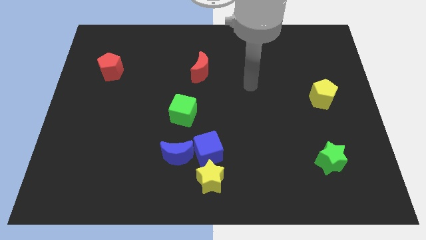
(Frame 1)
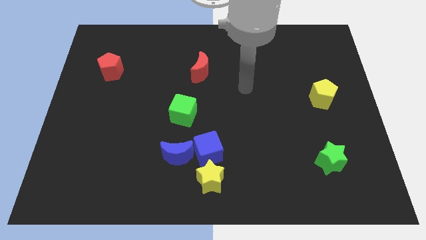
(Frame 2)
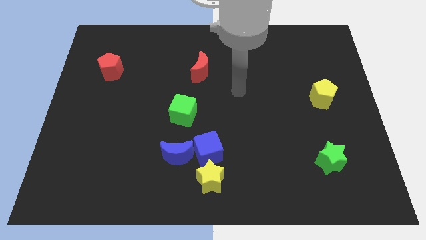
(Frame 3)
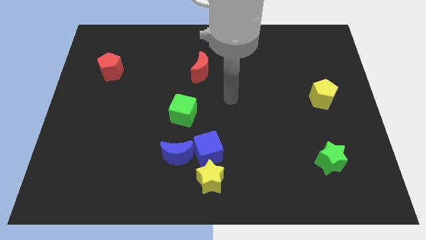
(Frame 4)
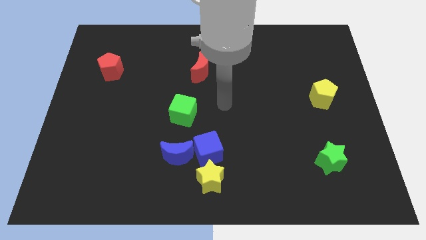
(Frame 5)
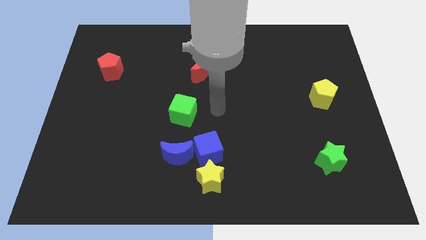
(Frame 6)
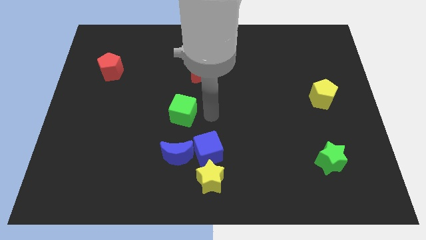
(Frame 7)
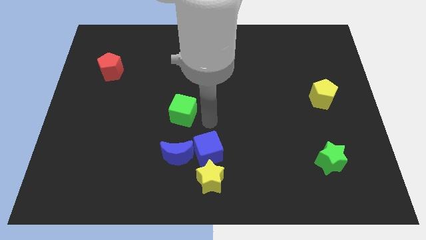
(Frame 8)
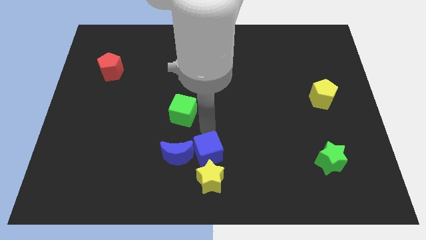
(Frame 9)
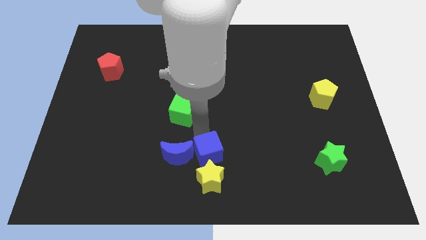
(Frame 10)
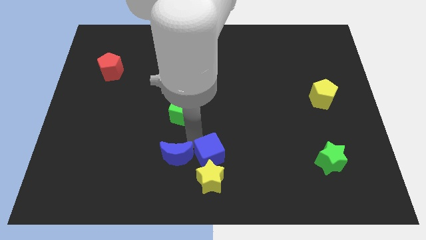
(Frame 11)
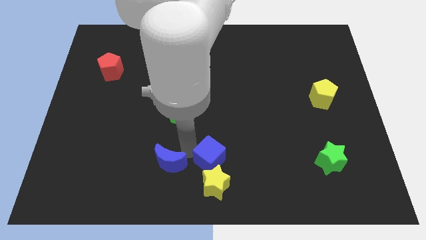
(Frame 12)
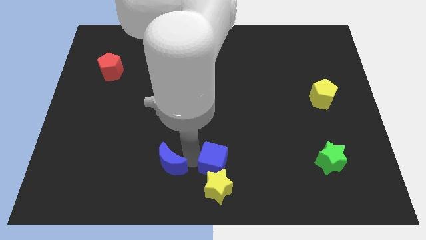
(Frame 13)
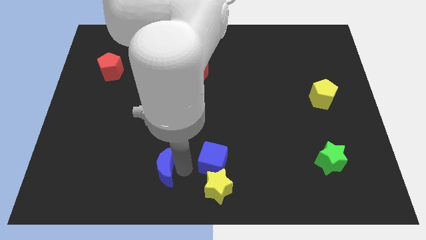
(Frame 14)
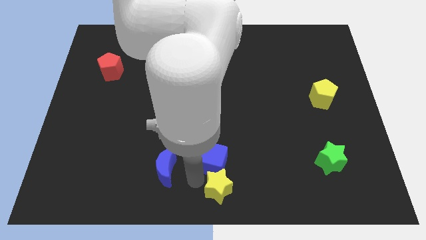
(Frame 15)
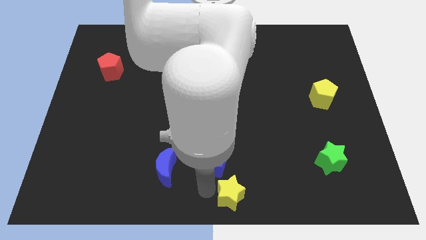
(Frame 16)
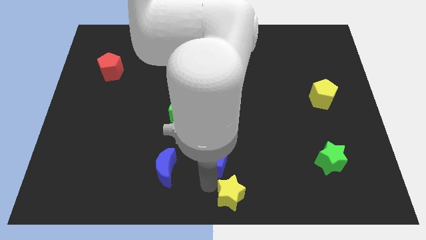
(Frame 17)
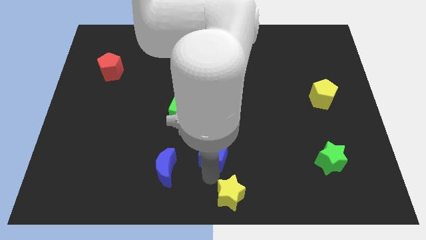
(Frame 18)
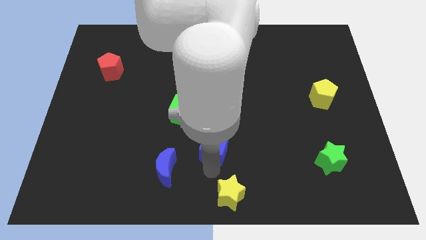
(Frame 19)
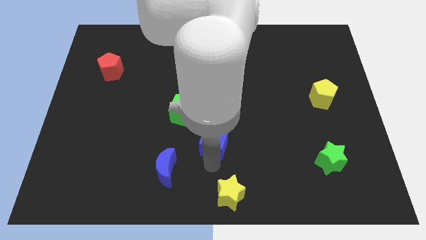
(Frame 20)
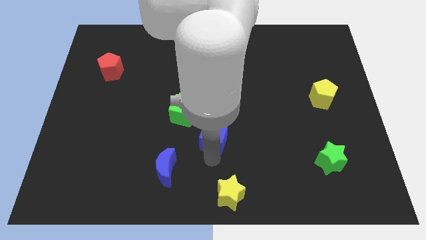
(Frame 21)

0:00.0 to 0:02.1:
pull the blue cube apart from the blue moon and yellow star

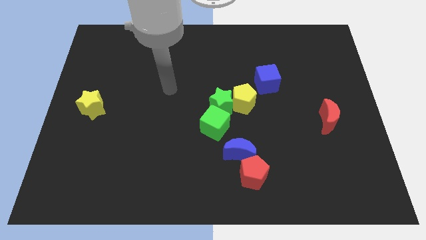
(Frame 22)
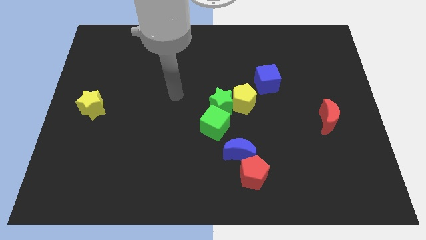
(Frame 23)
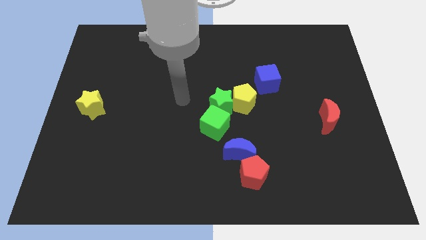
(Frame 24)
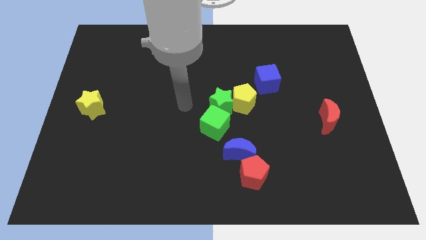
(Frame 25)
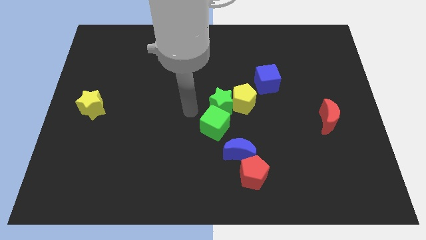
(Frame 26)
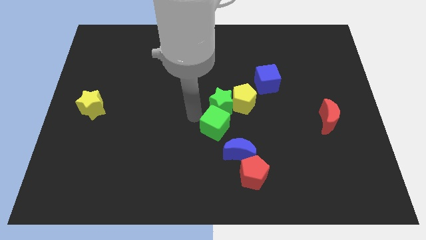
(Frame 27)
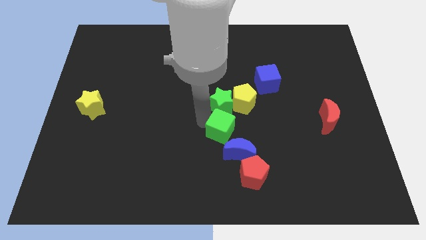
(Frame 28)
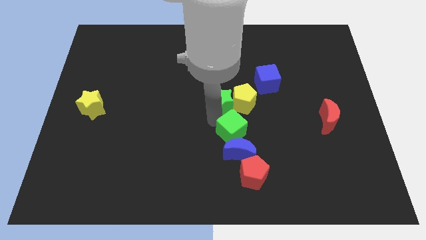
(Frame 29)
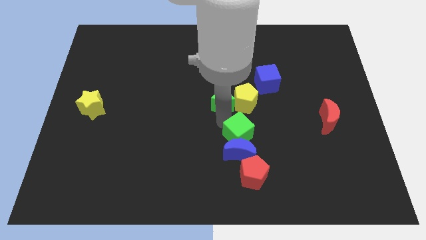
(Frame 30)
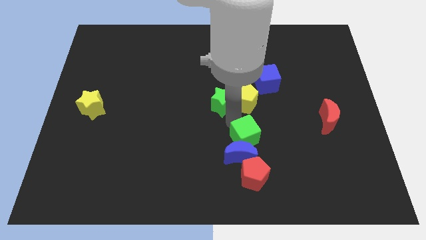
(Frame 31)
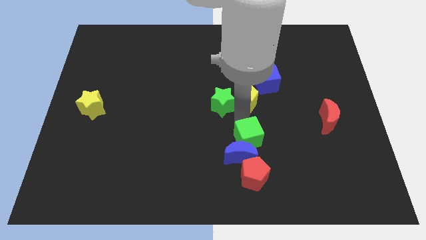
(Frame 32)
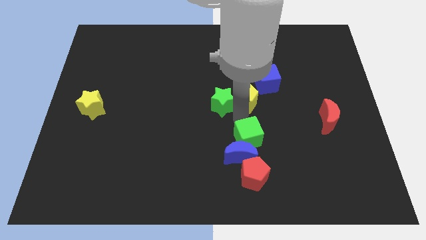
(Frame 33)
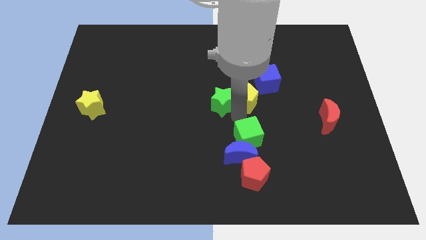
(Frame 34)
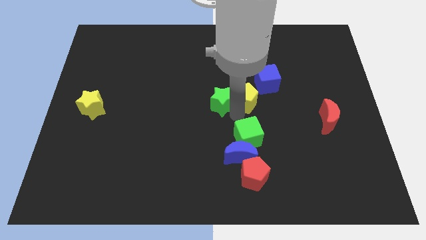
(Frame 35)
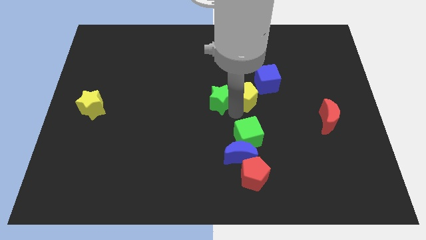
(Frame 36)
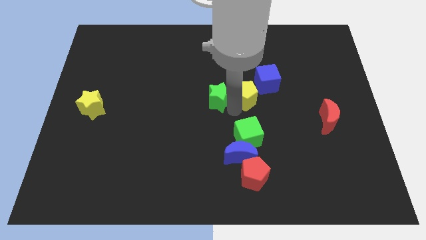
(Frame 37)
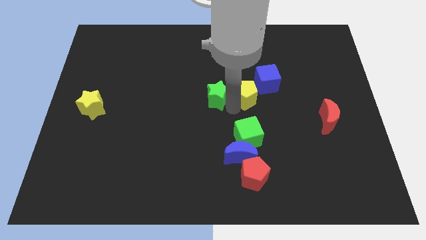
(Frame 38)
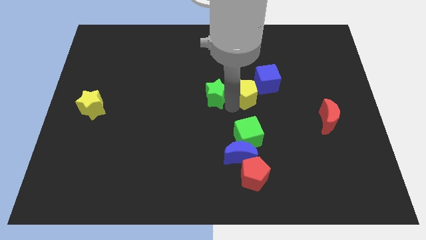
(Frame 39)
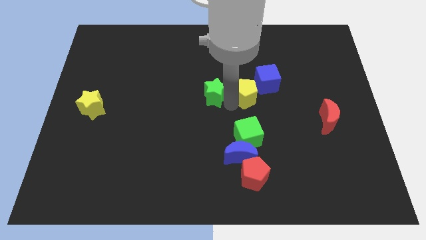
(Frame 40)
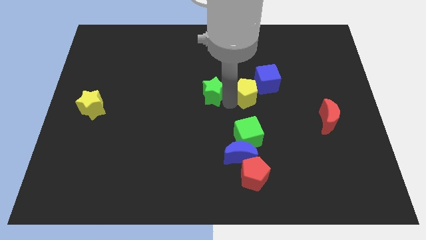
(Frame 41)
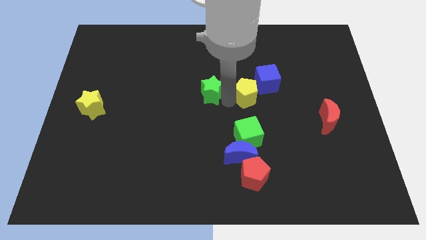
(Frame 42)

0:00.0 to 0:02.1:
separate the green star from the yellow pentagon and green cube

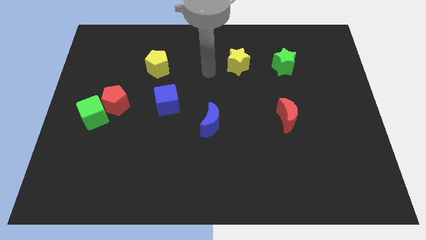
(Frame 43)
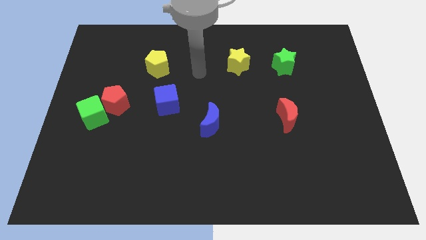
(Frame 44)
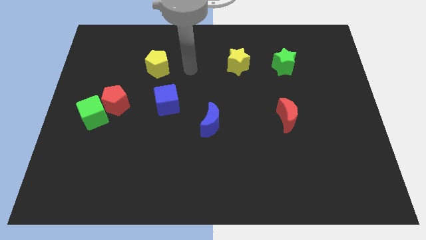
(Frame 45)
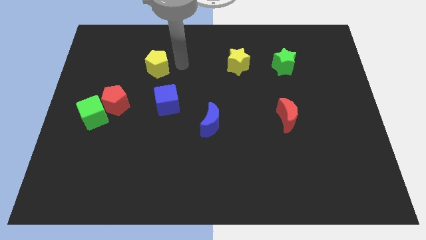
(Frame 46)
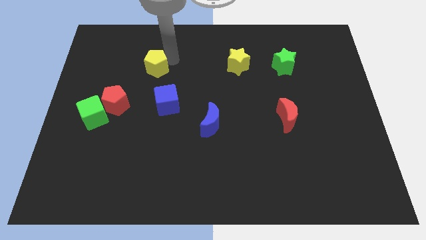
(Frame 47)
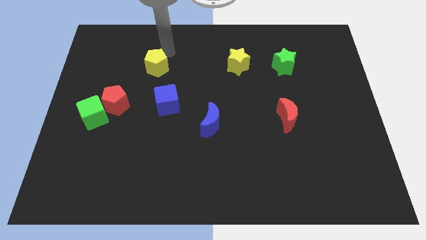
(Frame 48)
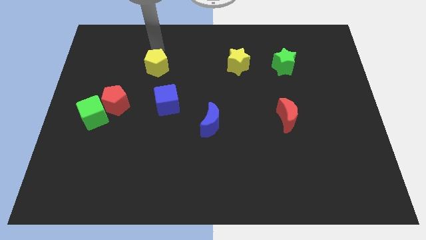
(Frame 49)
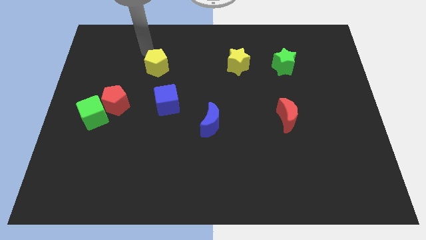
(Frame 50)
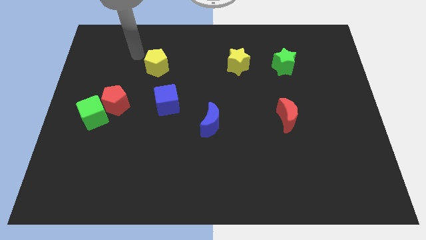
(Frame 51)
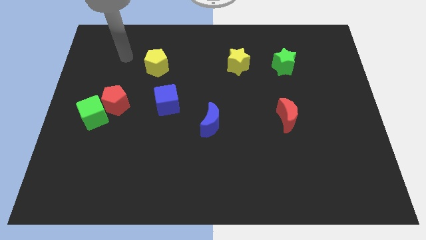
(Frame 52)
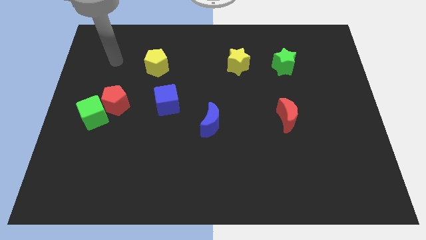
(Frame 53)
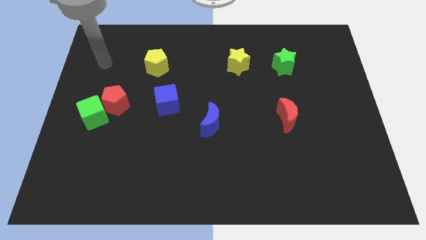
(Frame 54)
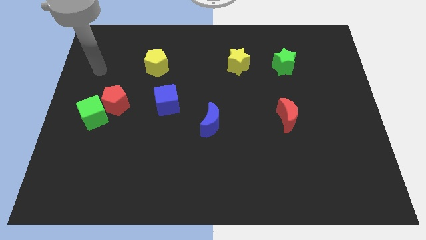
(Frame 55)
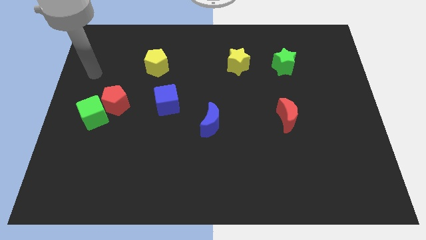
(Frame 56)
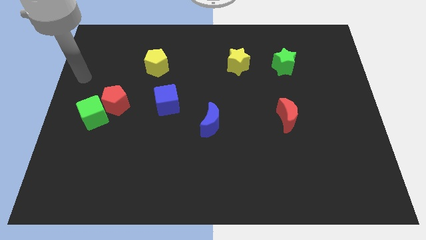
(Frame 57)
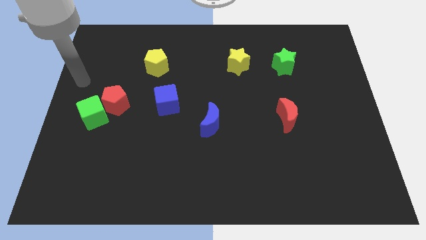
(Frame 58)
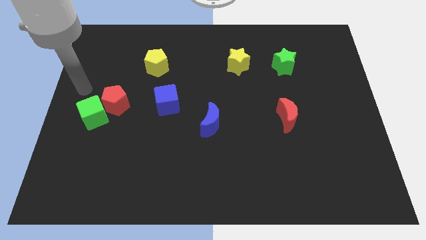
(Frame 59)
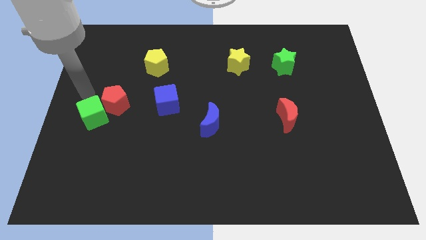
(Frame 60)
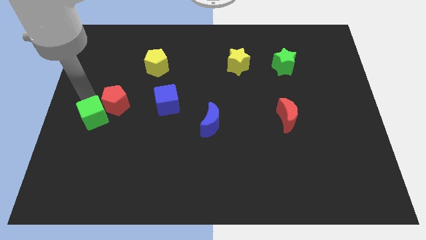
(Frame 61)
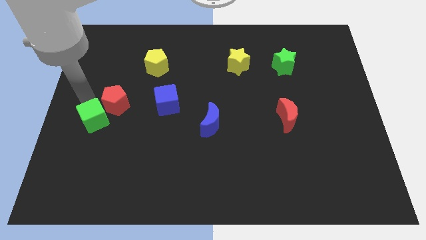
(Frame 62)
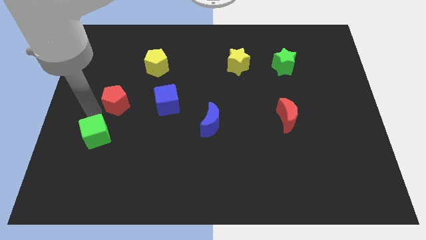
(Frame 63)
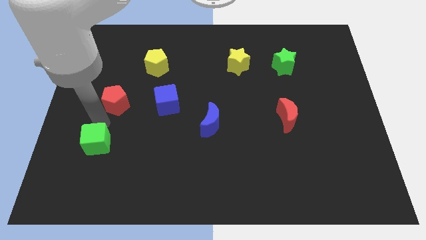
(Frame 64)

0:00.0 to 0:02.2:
separate the red pentagon from the green cube

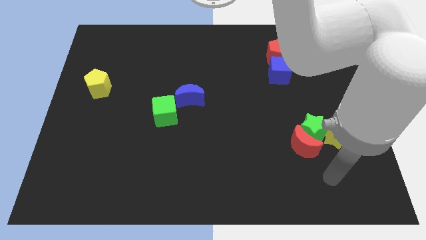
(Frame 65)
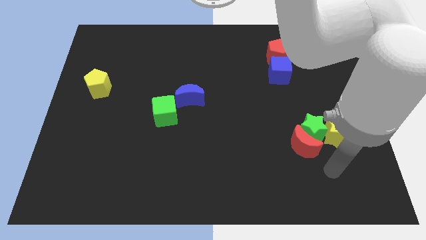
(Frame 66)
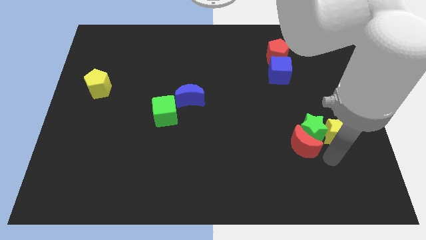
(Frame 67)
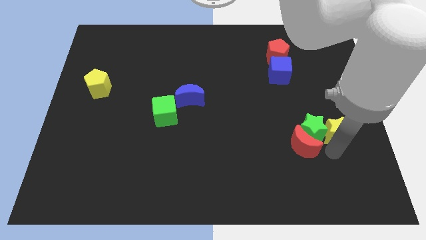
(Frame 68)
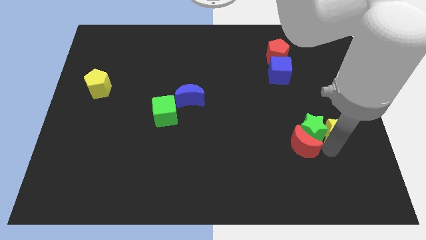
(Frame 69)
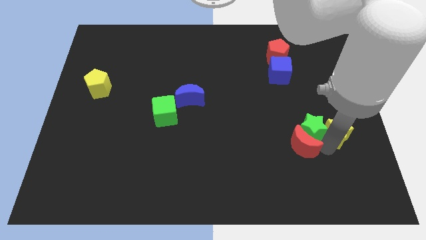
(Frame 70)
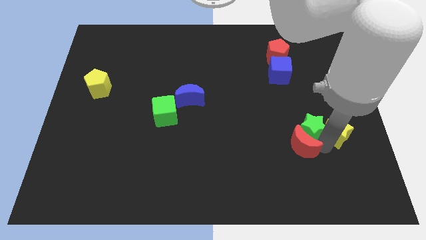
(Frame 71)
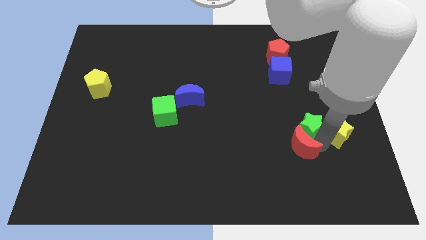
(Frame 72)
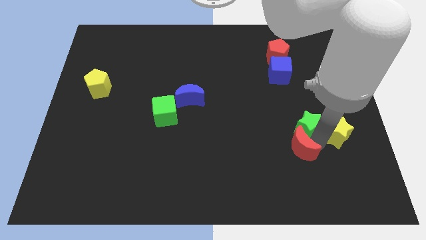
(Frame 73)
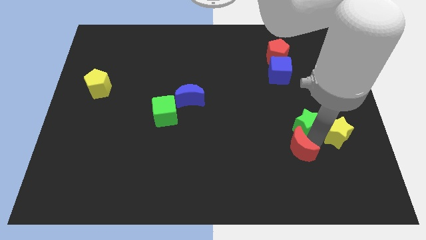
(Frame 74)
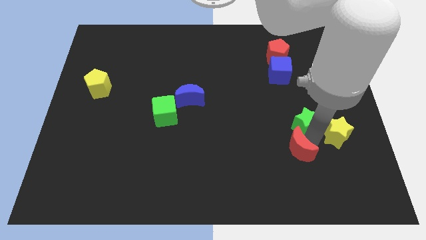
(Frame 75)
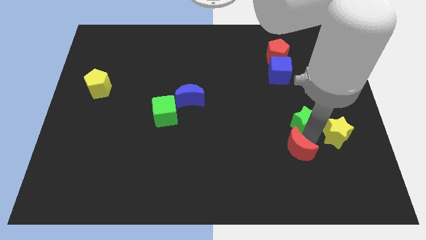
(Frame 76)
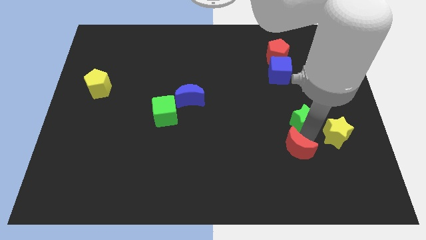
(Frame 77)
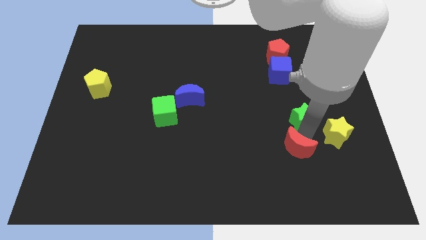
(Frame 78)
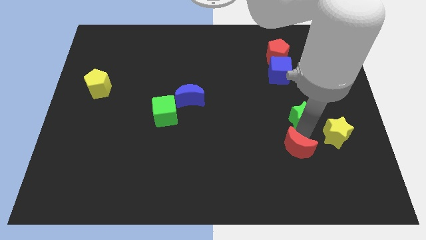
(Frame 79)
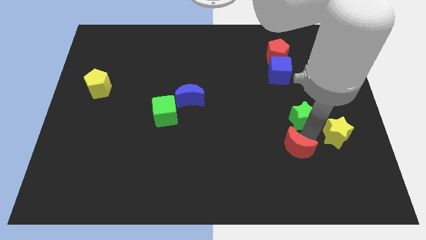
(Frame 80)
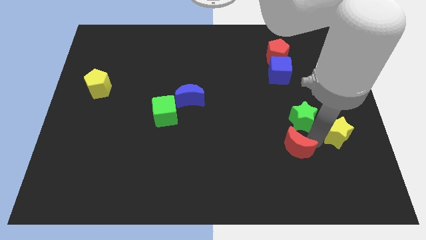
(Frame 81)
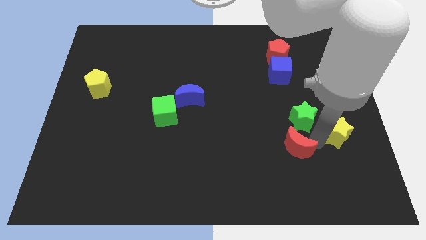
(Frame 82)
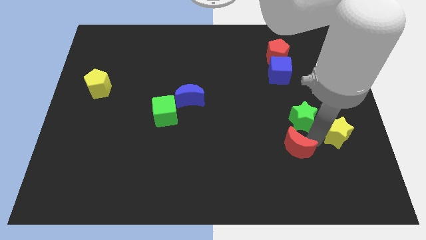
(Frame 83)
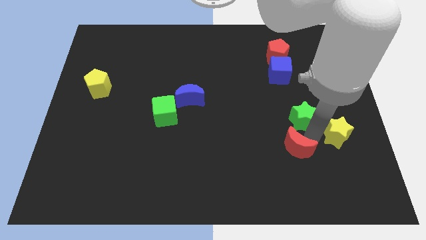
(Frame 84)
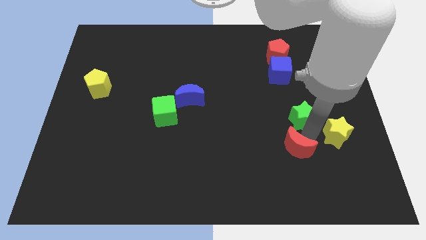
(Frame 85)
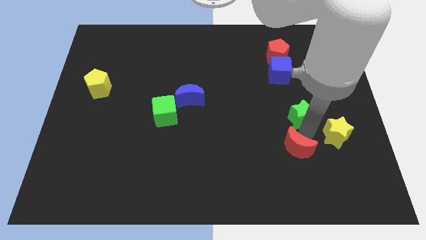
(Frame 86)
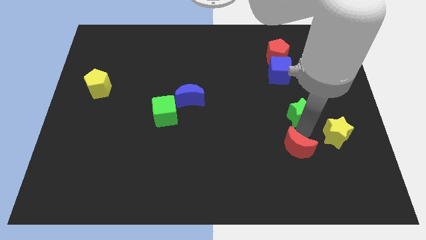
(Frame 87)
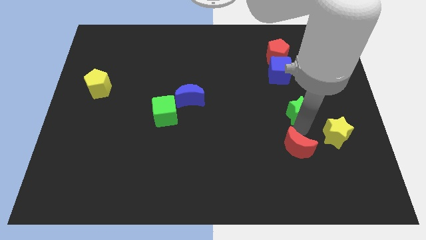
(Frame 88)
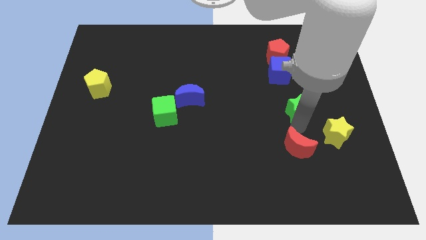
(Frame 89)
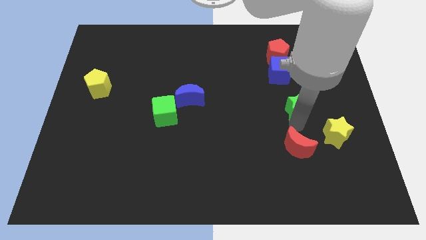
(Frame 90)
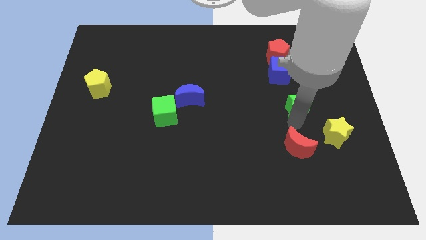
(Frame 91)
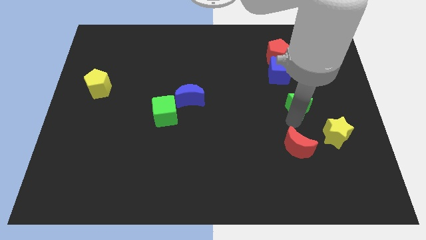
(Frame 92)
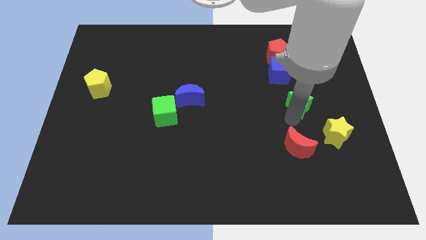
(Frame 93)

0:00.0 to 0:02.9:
move the green star away from the red moon and yellow star
